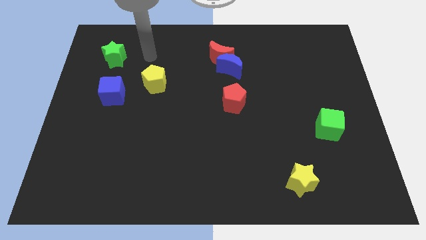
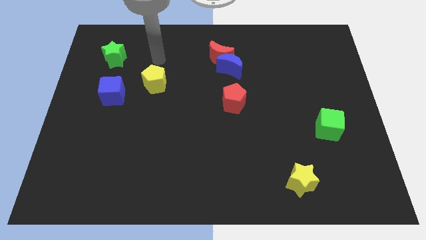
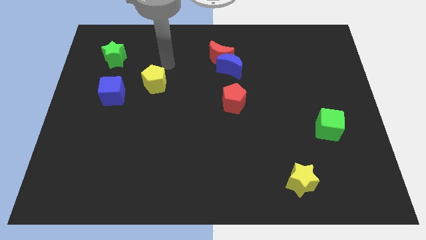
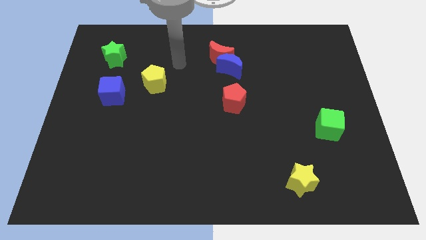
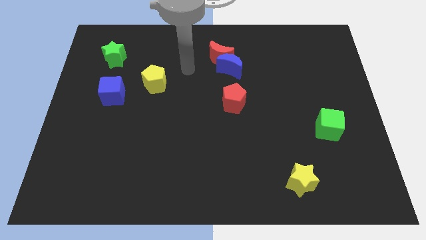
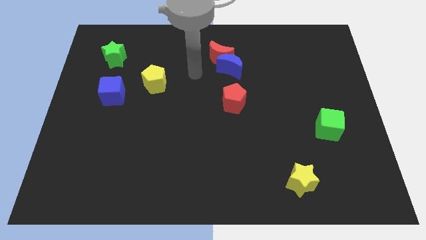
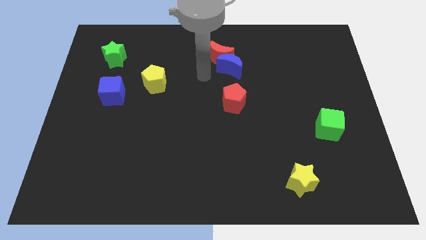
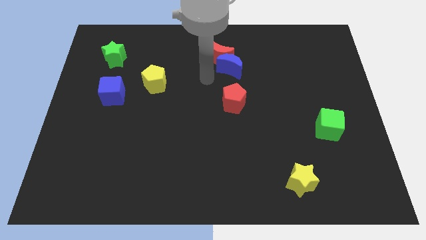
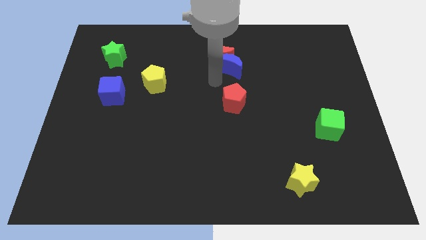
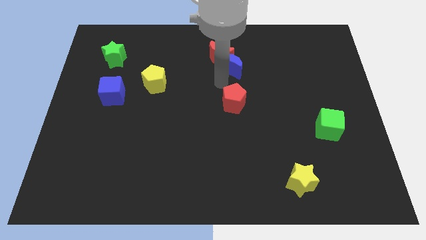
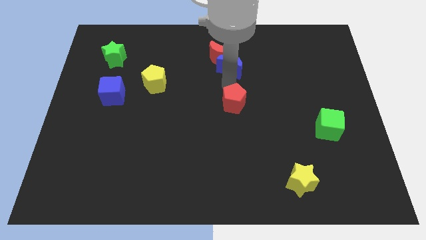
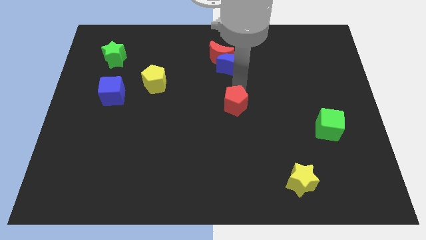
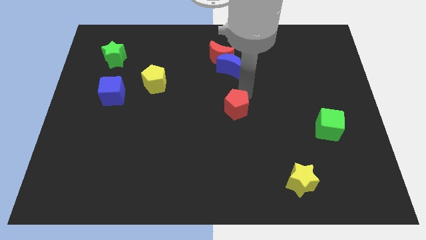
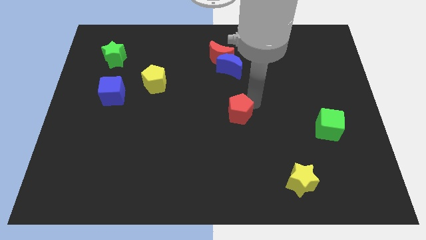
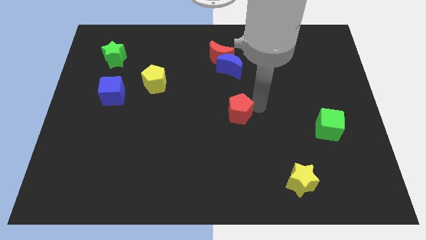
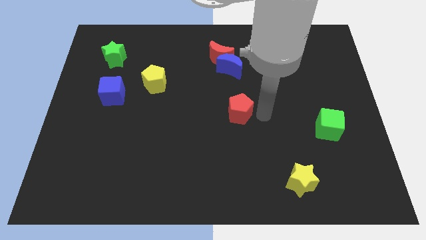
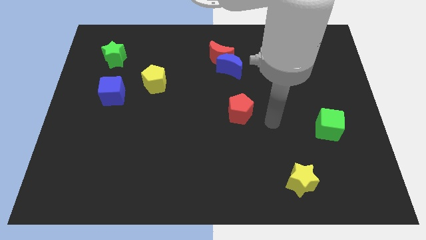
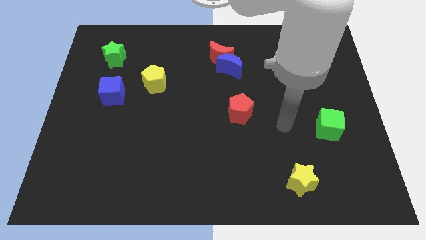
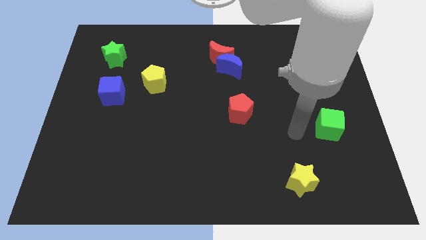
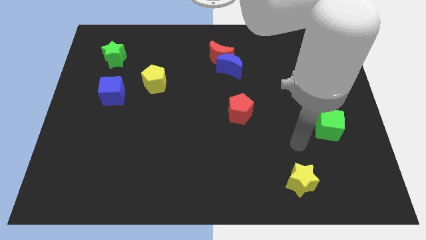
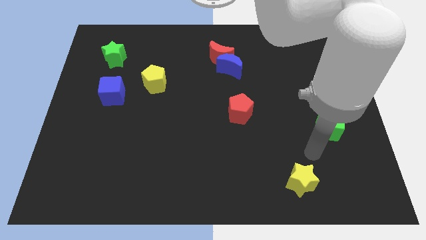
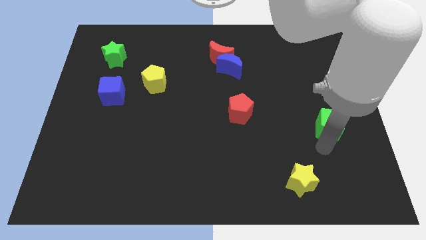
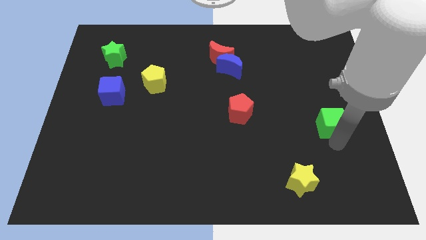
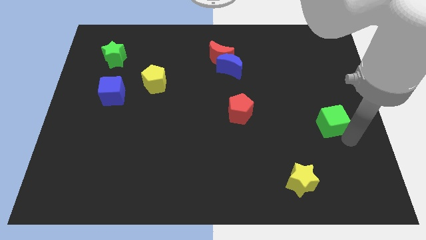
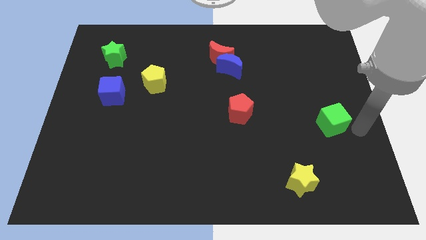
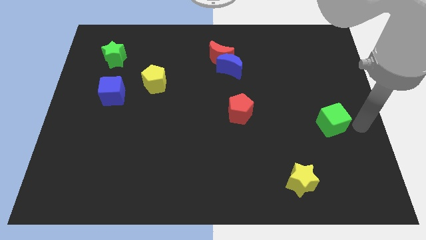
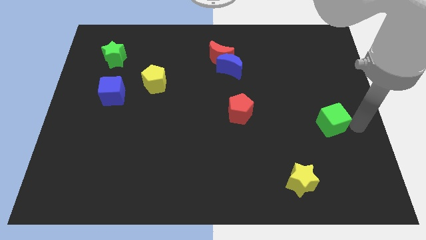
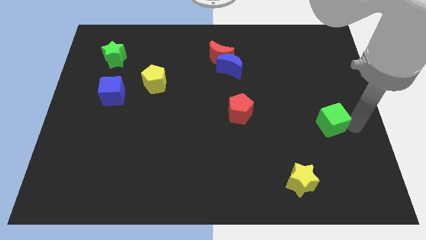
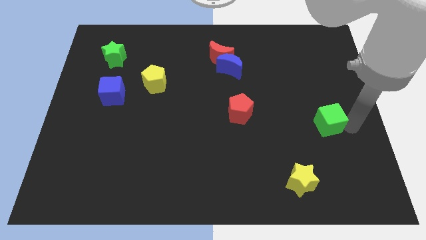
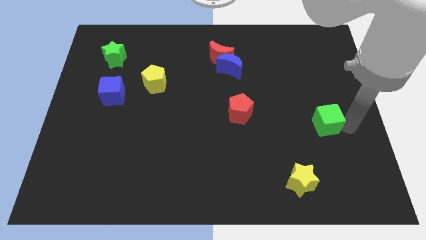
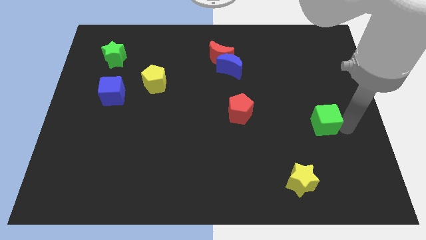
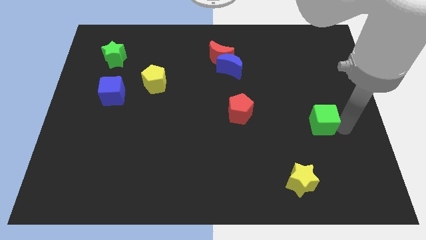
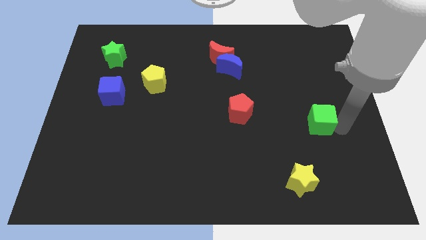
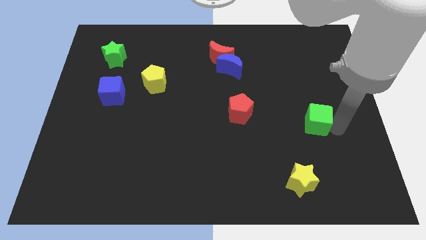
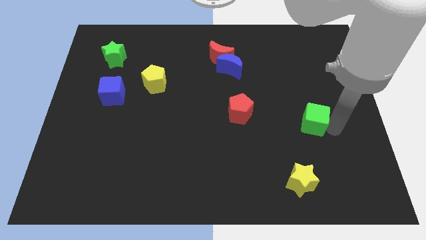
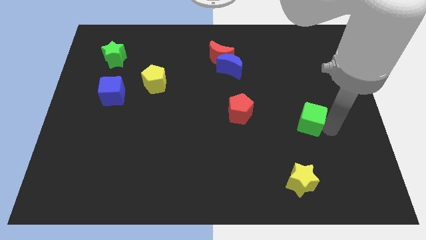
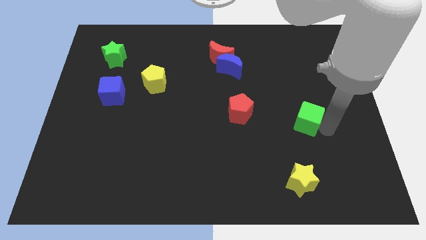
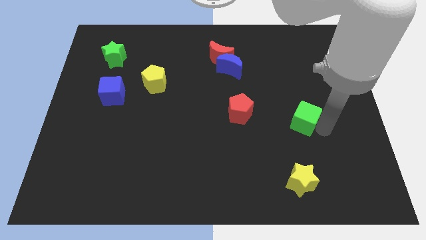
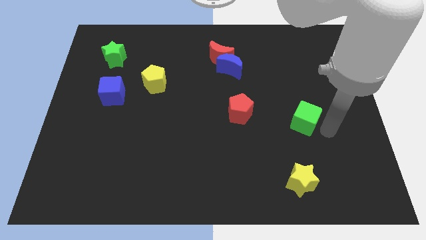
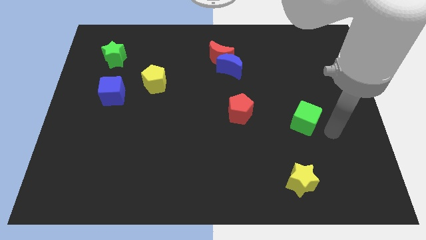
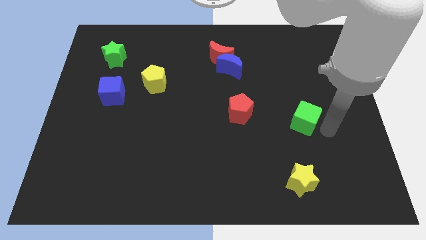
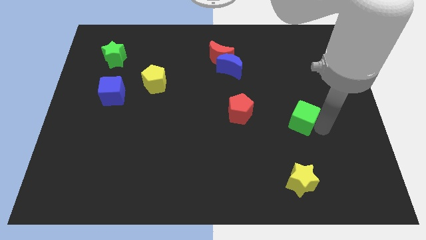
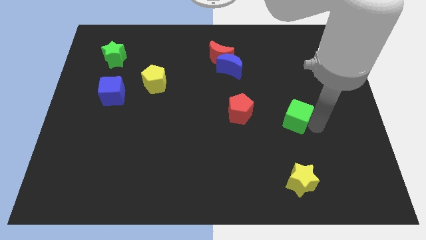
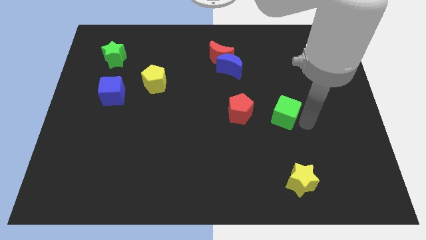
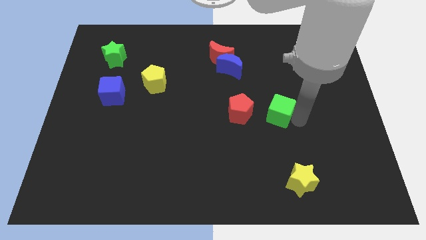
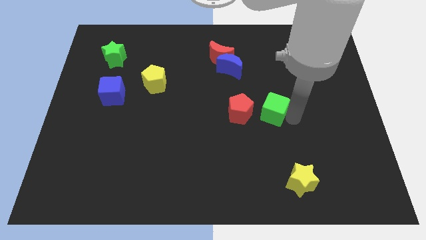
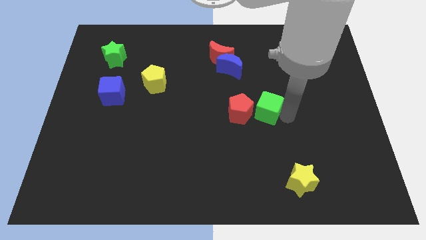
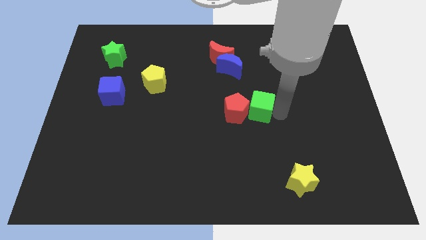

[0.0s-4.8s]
move the green cube to the red pentagon

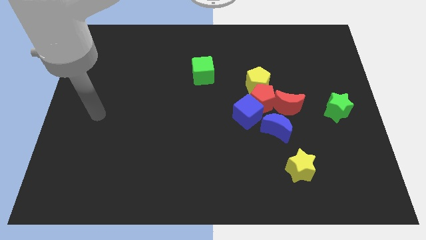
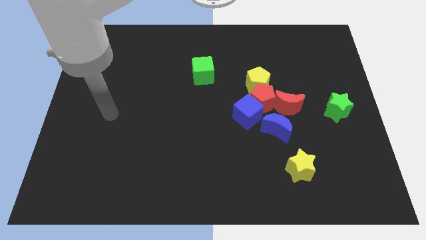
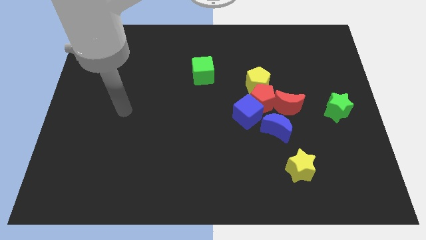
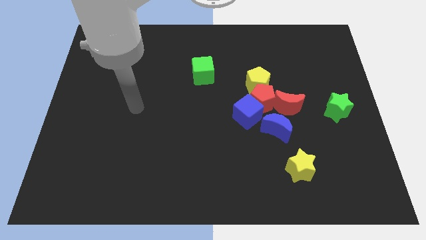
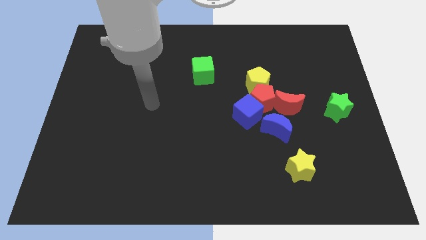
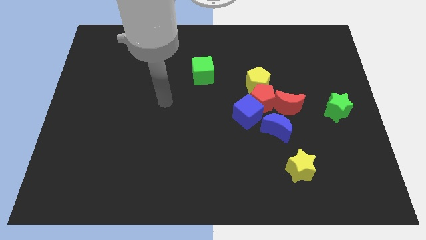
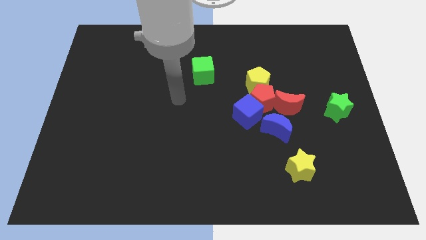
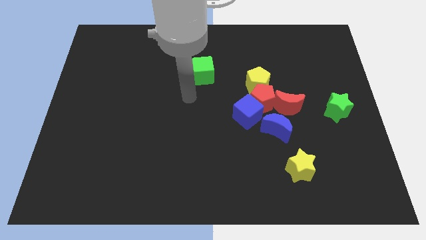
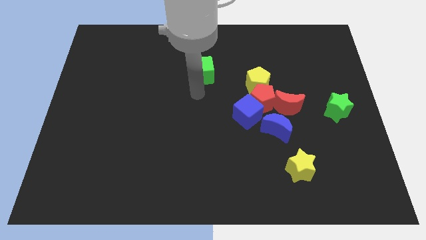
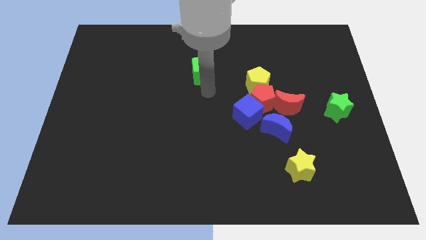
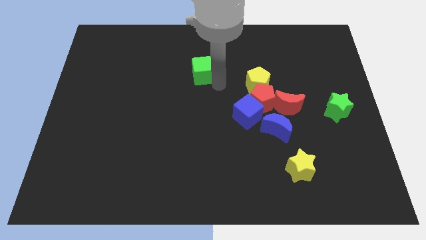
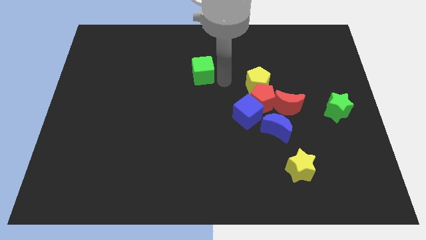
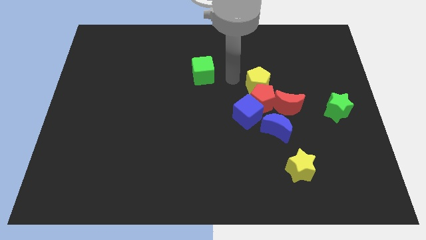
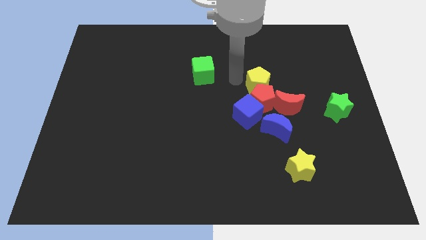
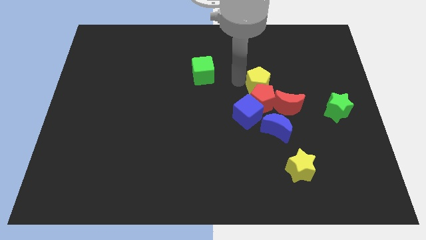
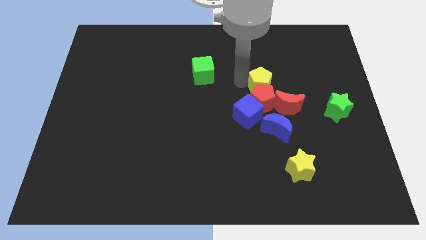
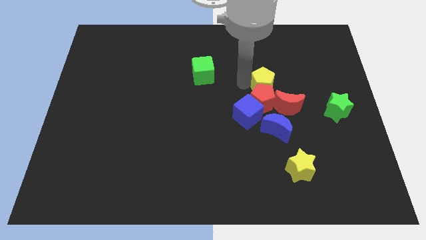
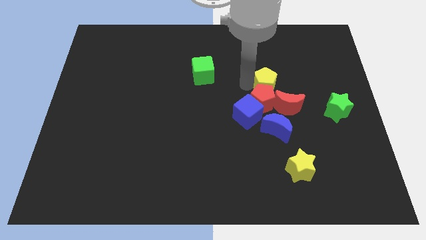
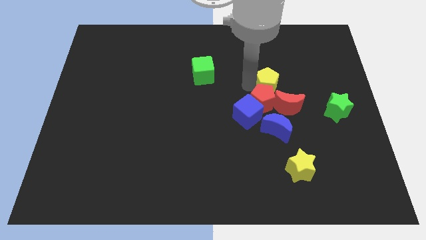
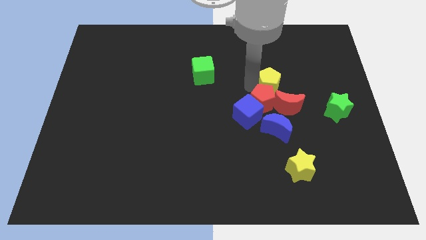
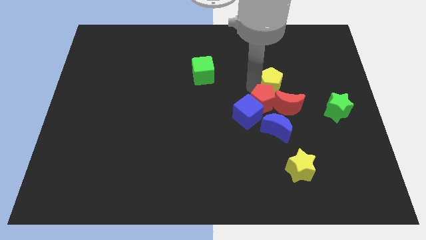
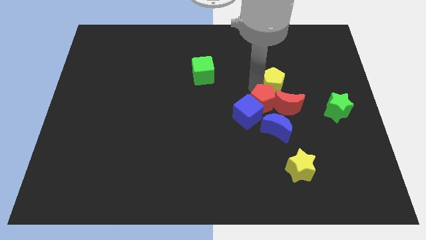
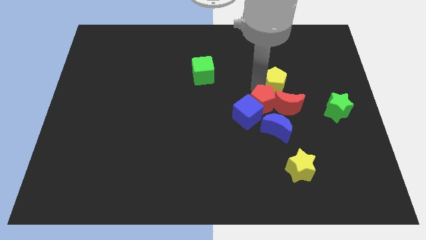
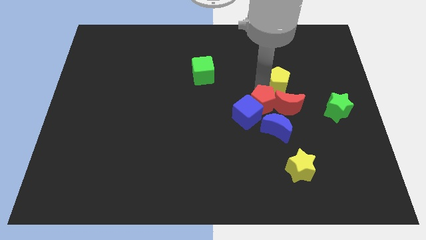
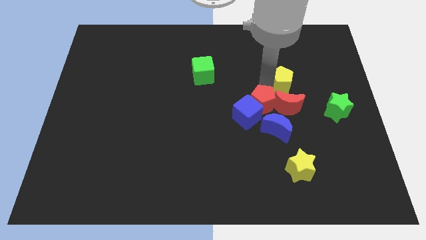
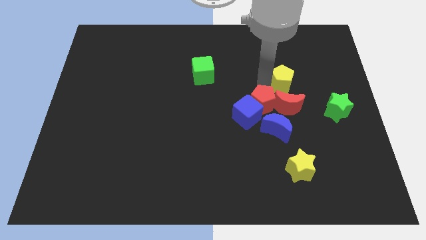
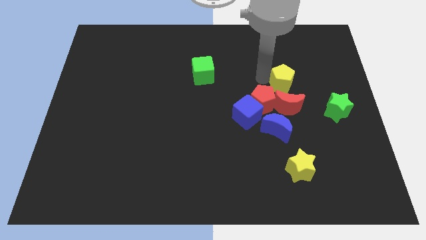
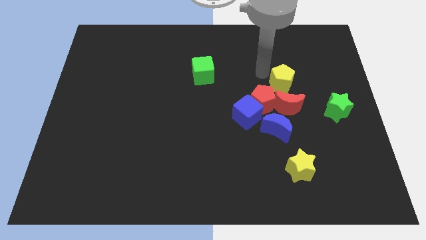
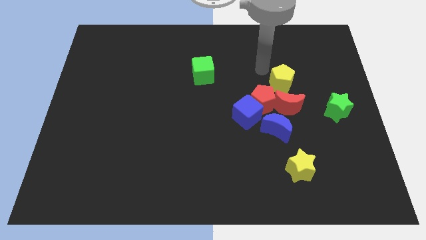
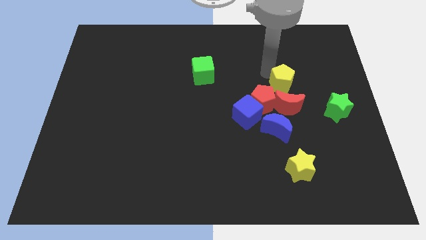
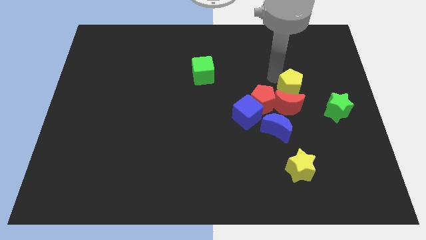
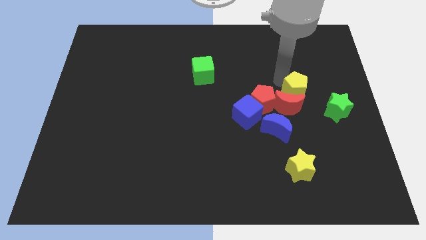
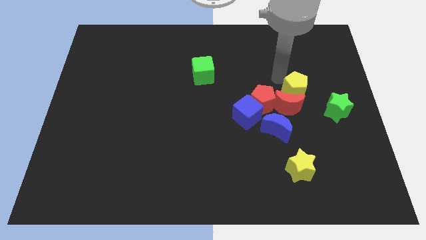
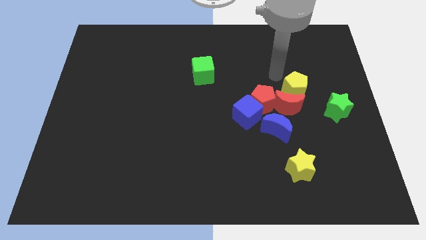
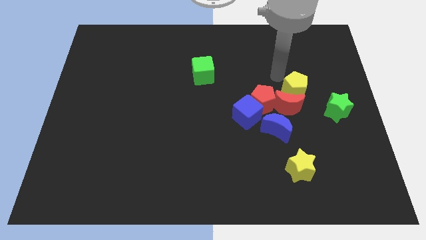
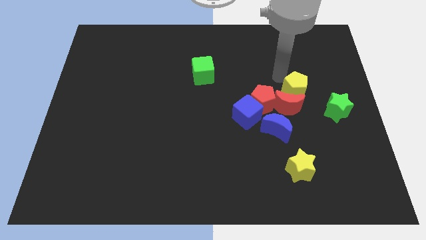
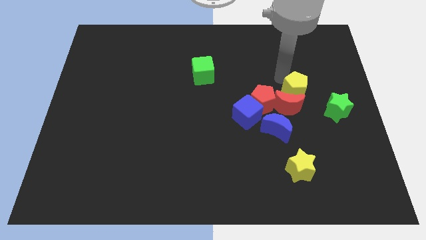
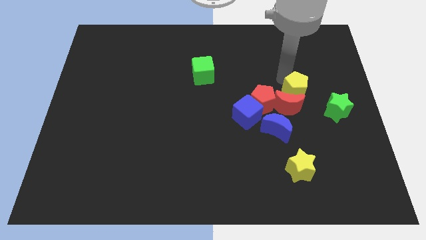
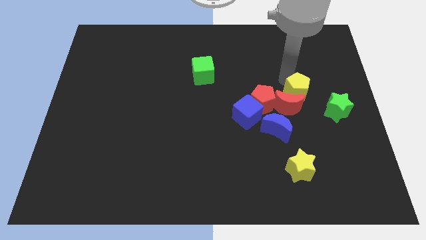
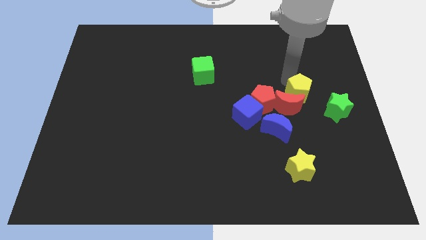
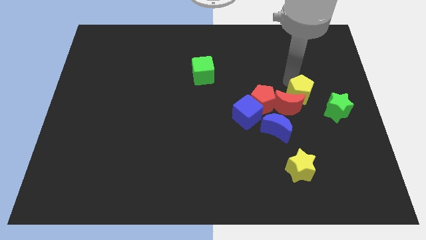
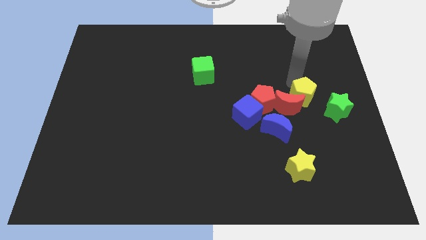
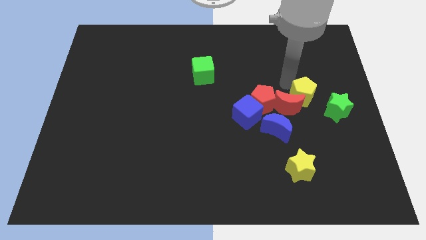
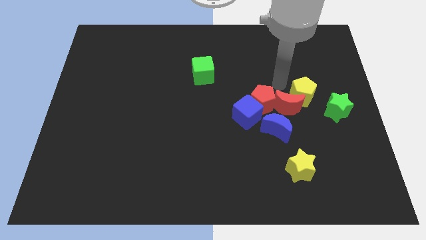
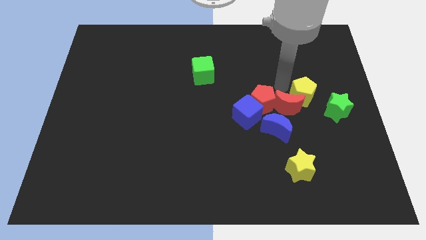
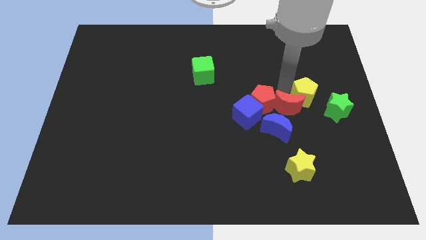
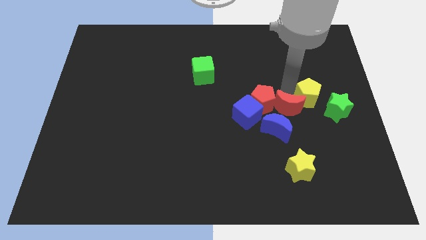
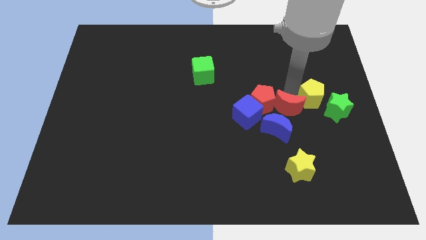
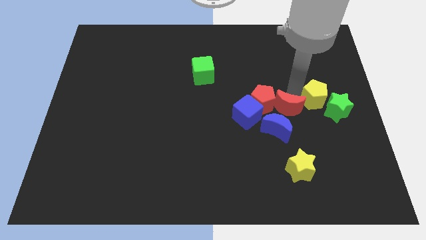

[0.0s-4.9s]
slide the yellow pentagon towards the green star
